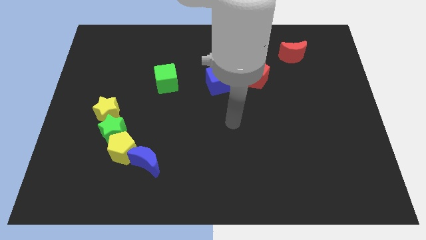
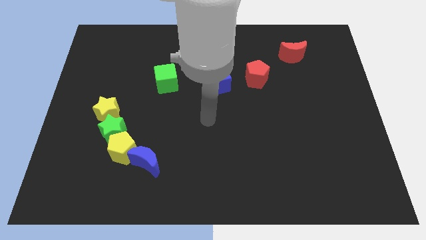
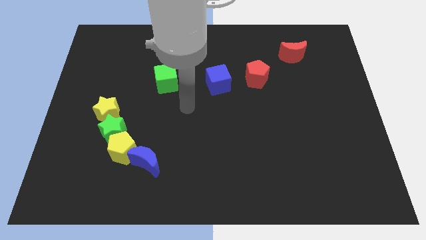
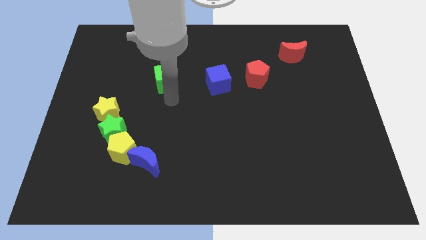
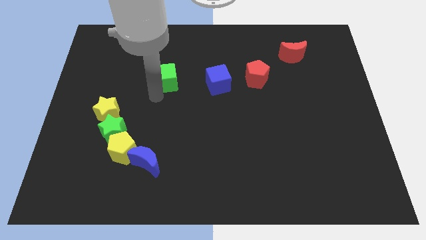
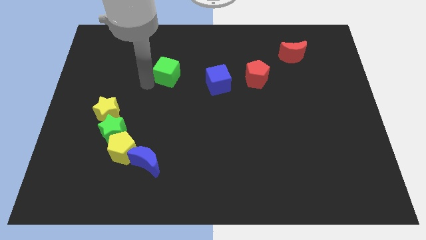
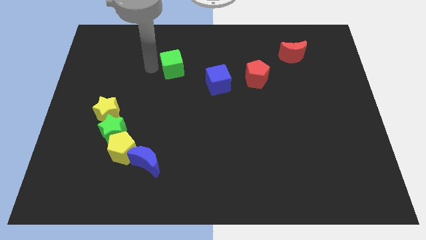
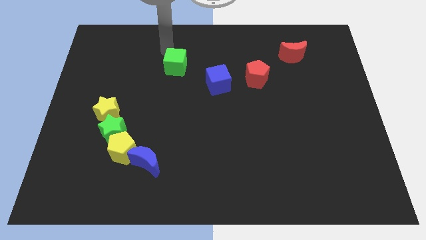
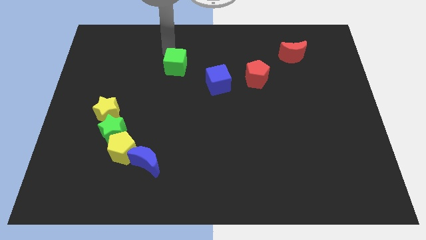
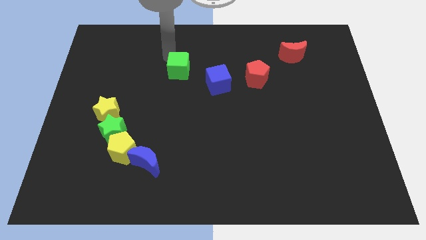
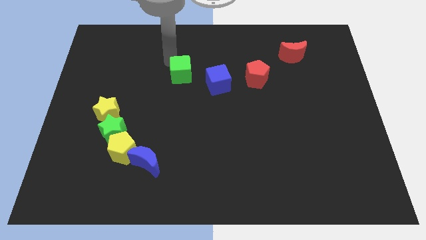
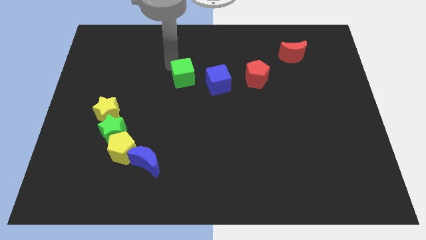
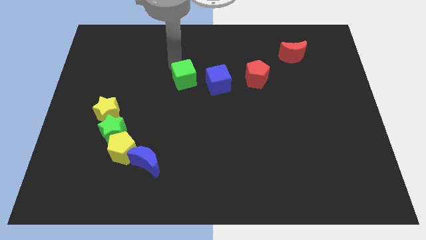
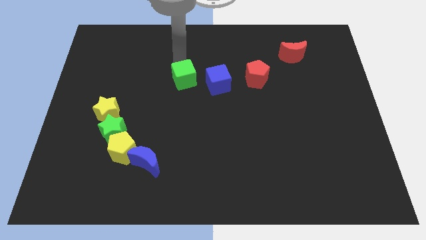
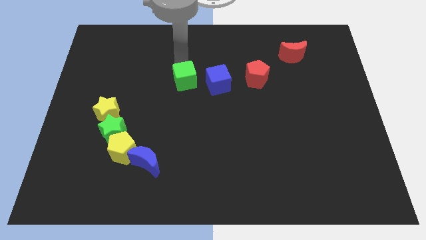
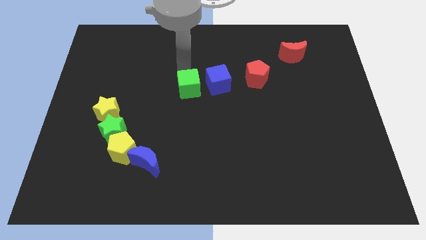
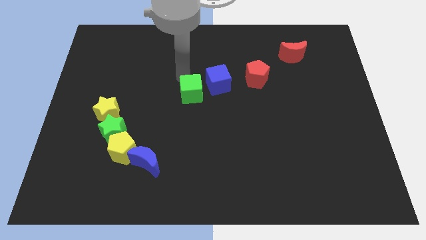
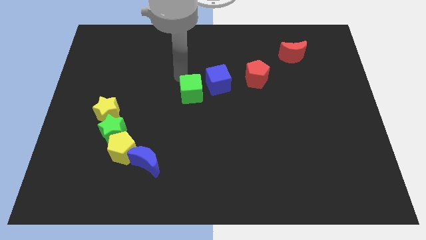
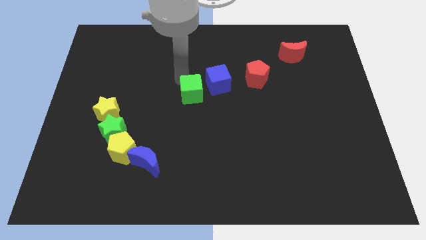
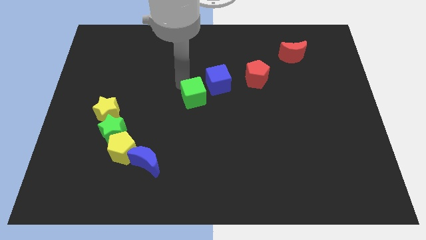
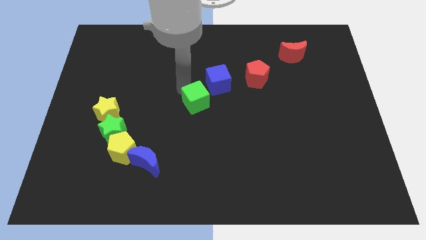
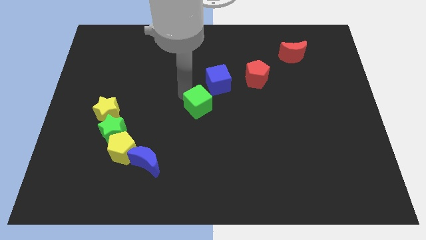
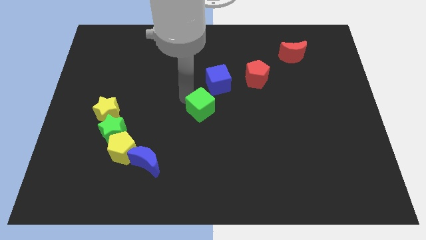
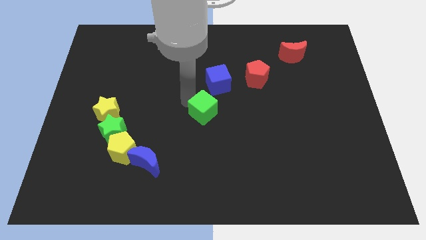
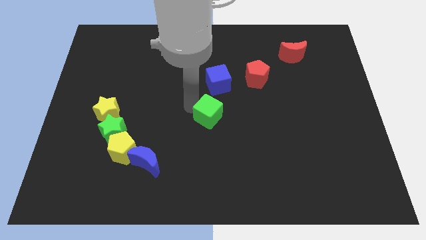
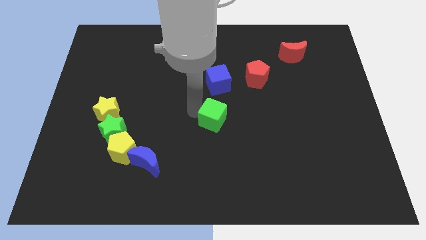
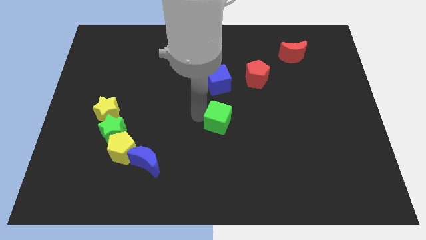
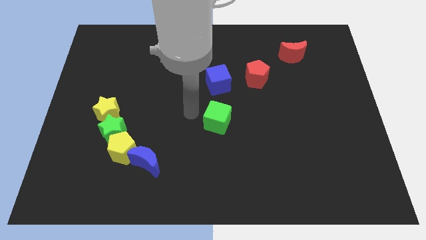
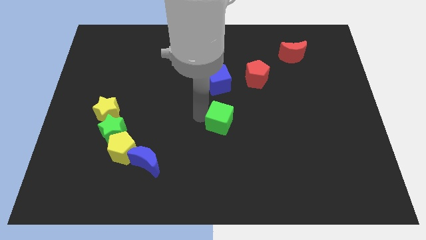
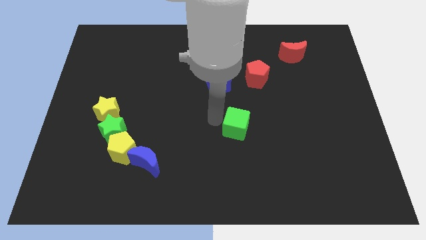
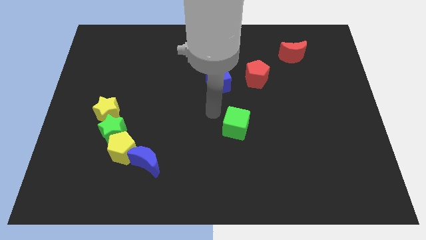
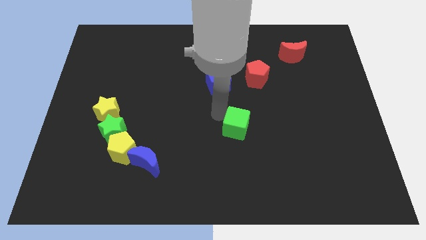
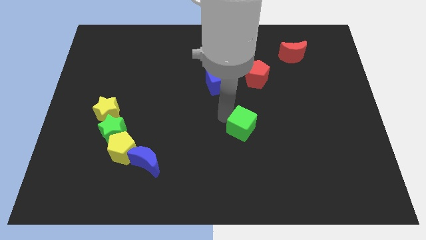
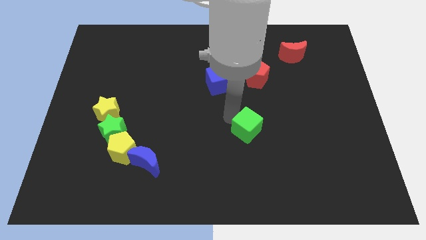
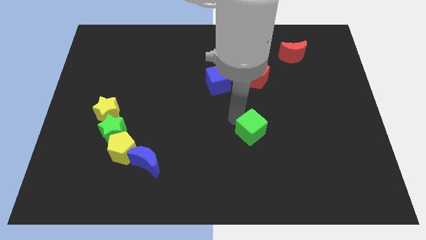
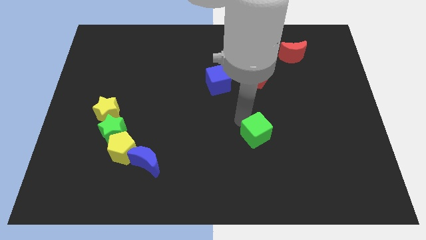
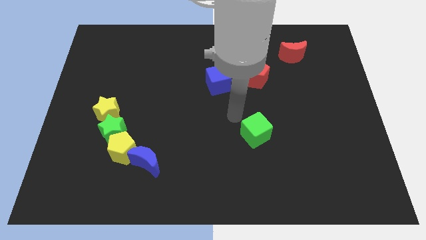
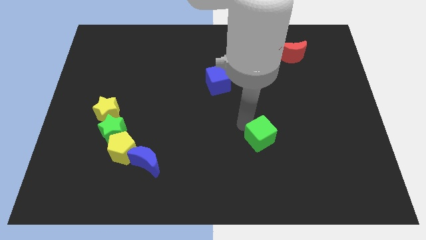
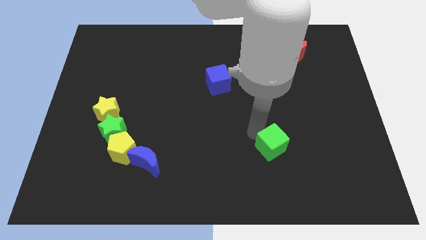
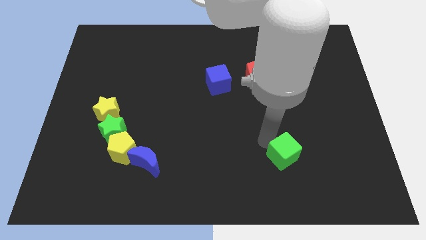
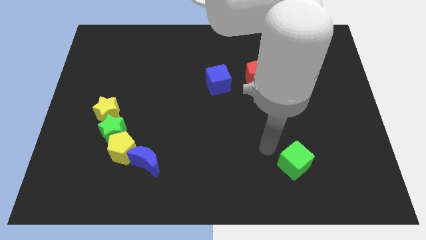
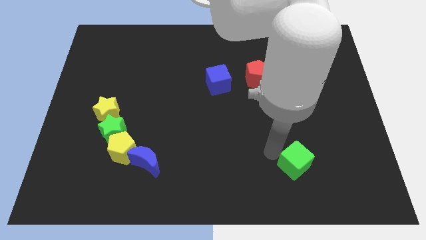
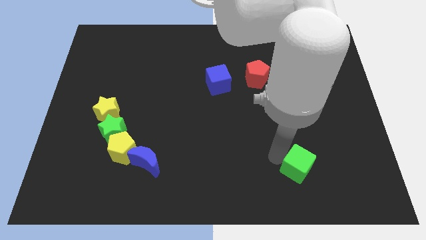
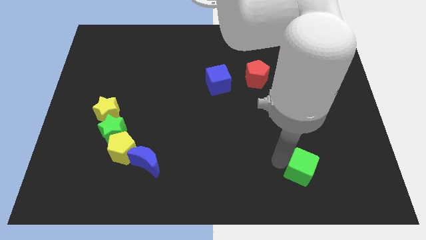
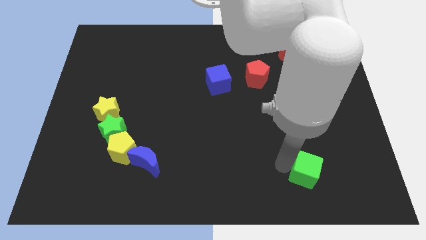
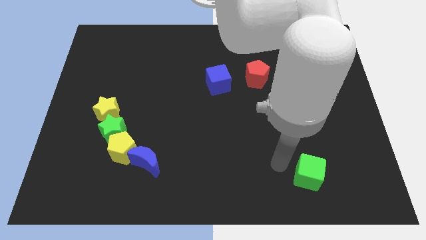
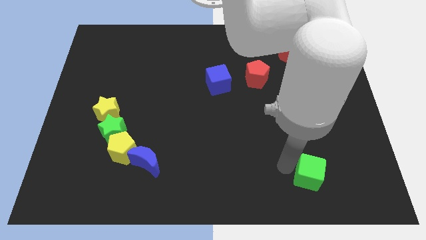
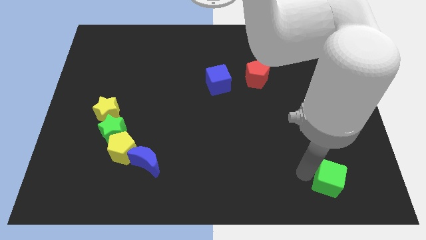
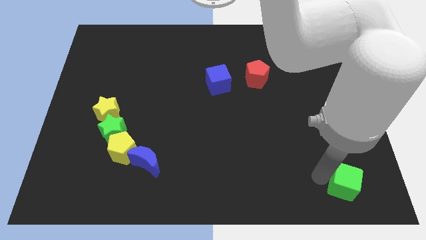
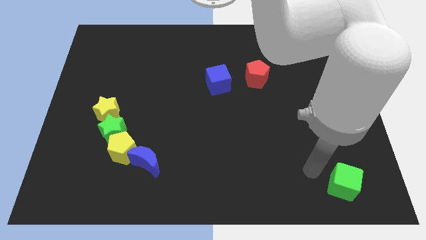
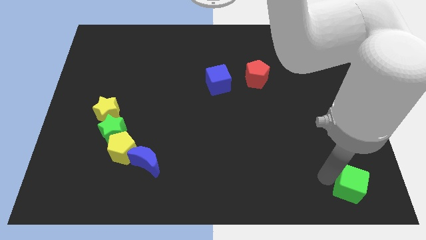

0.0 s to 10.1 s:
put the green cube to the bottom right corner

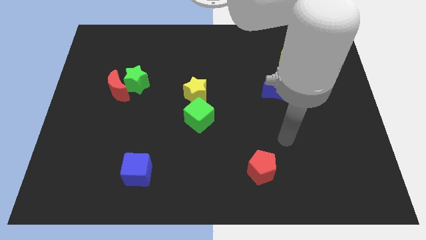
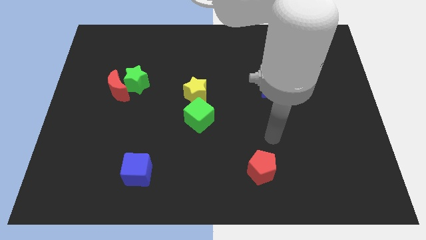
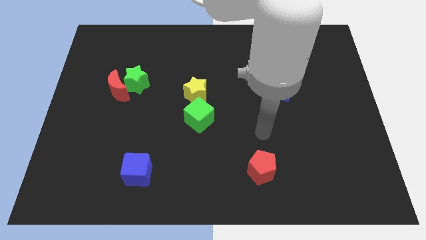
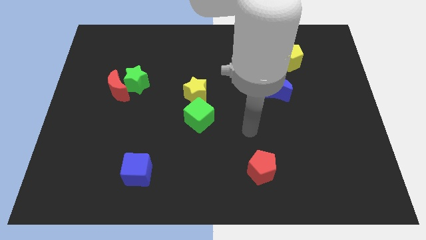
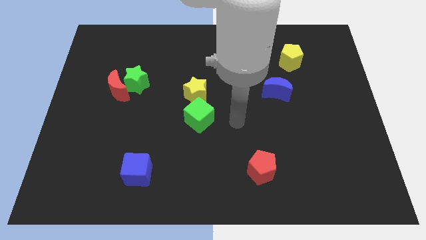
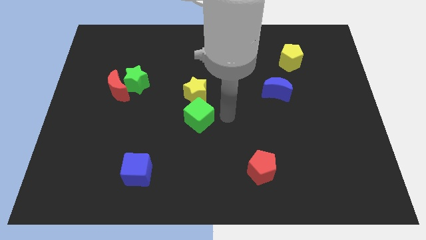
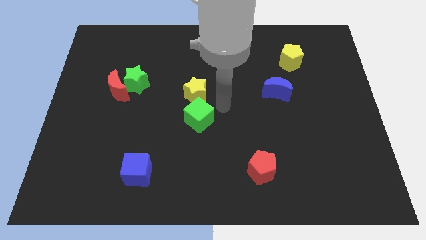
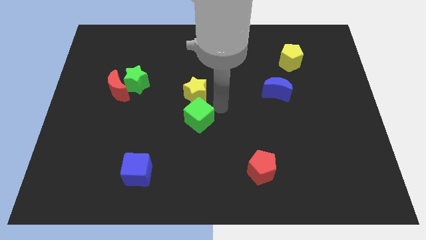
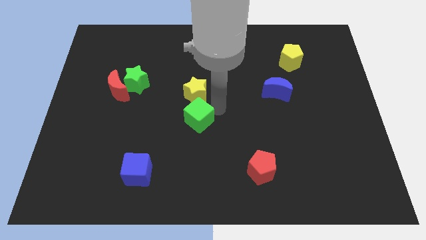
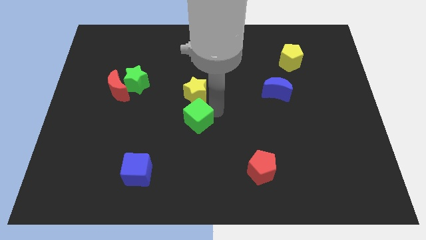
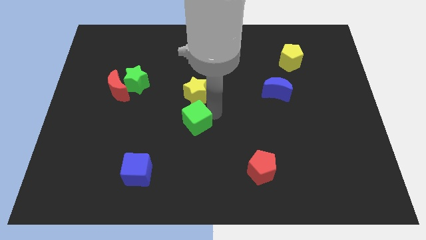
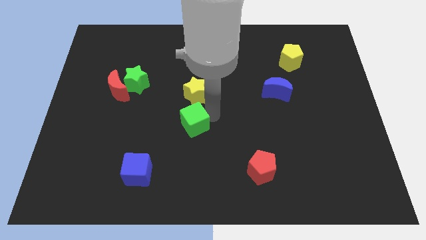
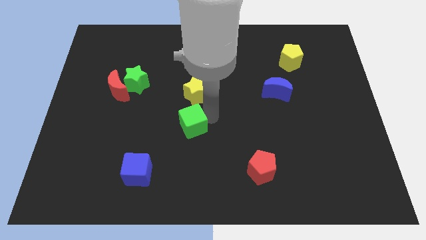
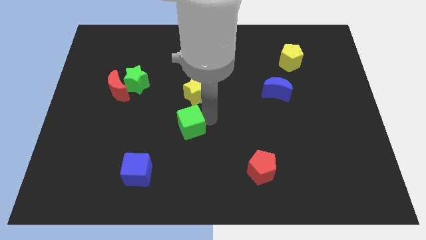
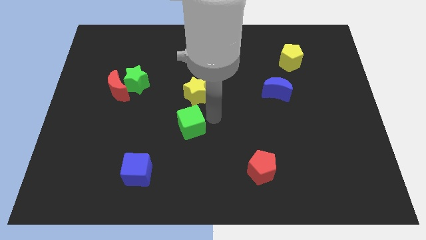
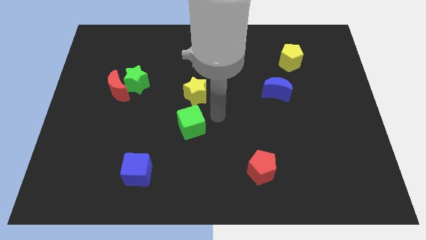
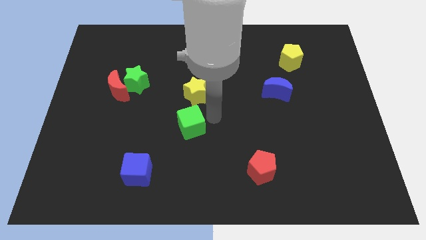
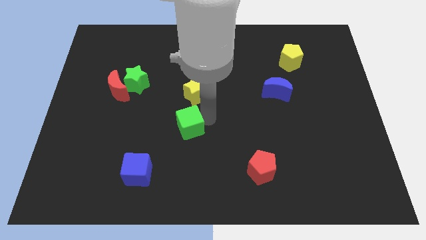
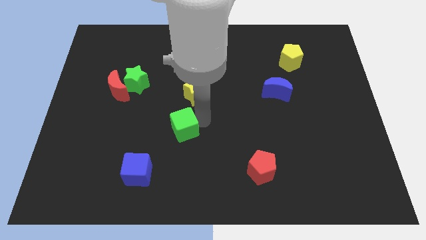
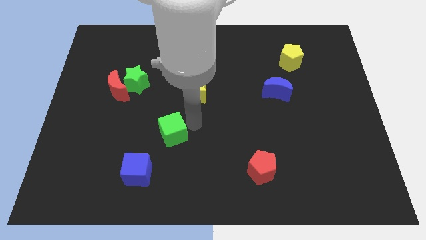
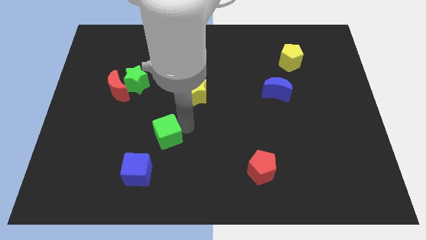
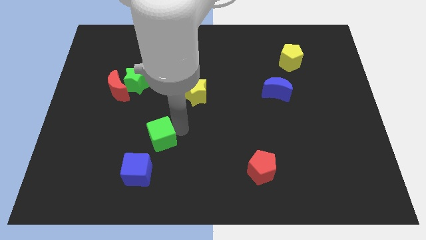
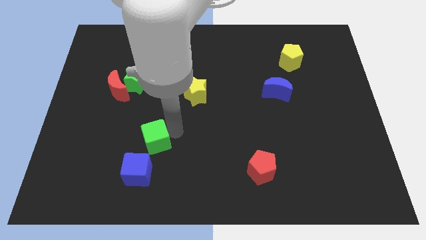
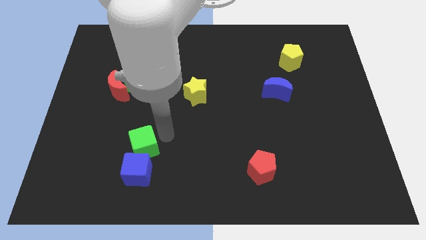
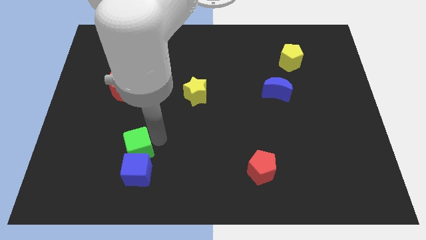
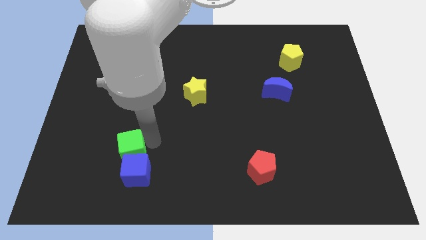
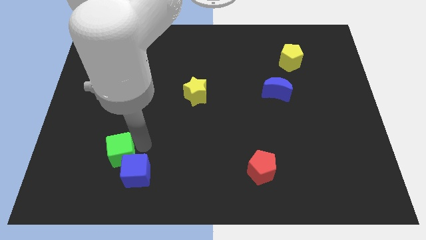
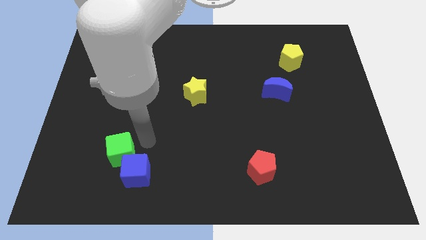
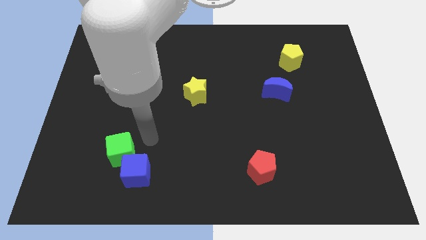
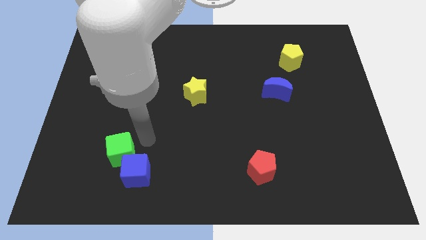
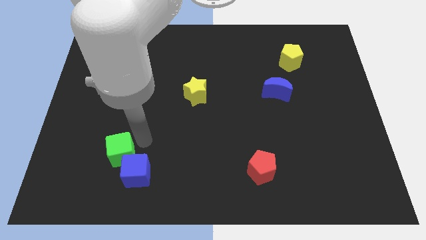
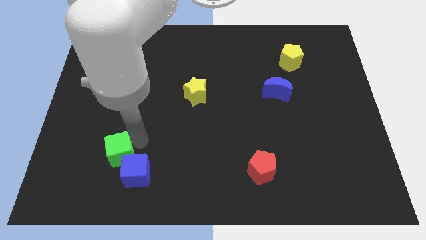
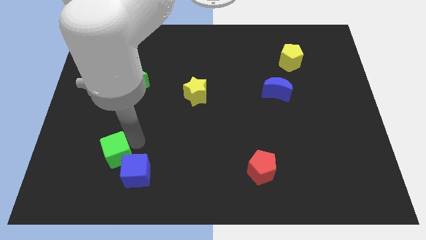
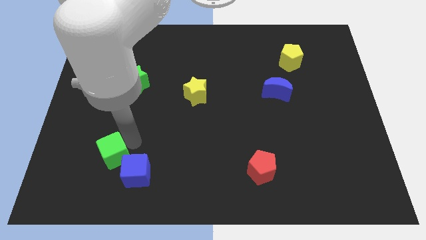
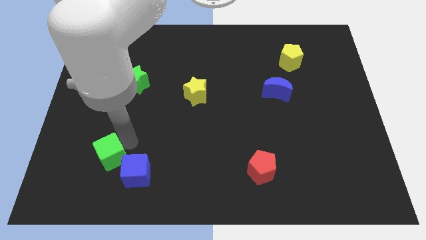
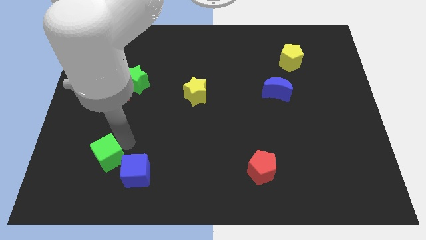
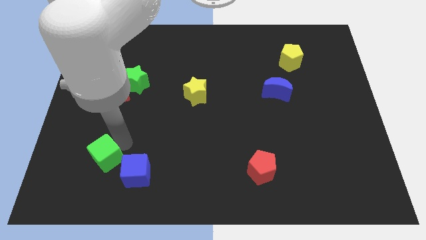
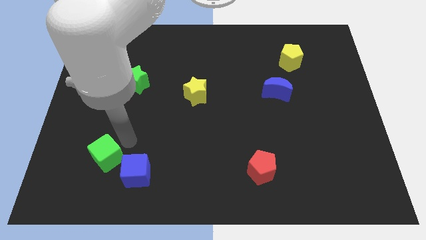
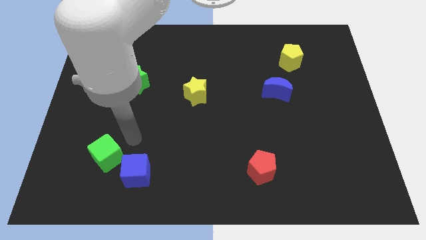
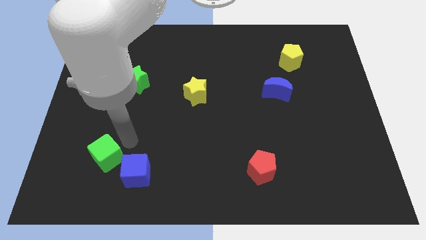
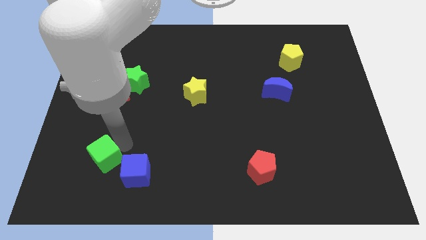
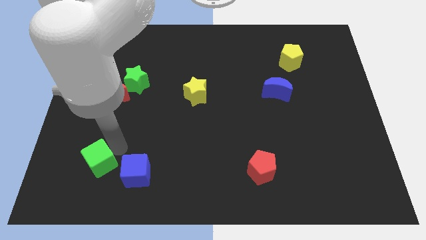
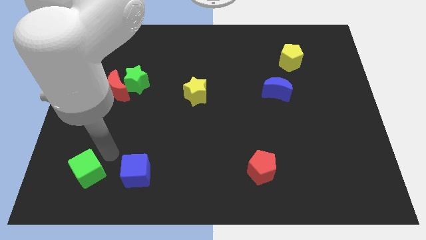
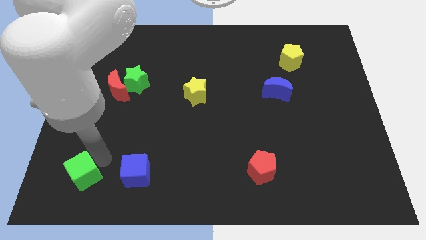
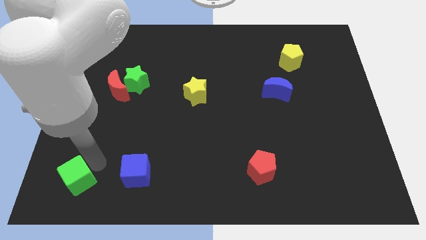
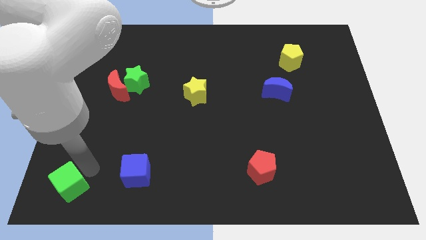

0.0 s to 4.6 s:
move the green cube to the bottom left corner
